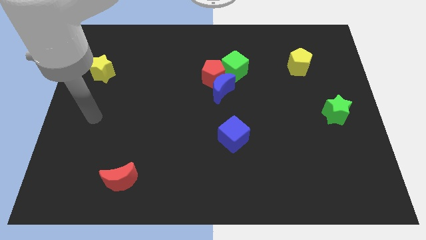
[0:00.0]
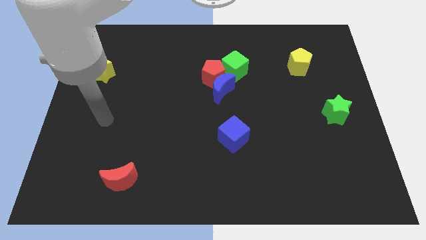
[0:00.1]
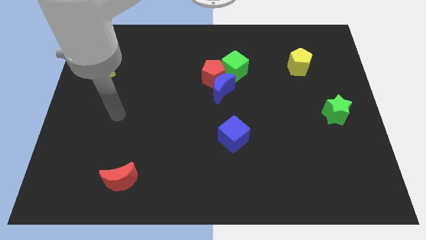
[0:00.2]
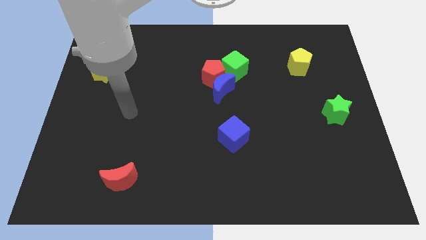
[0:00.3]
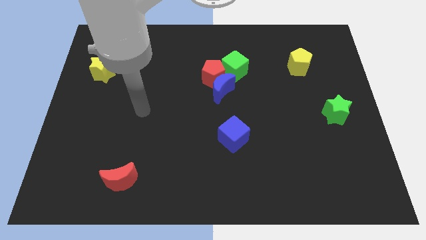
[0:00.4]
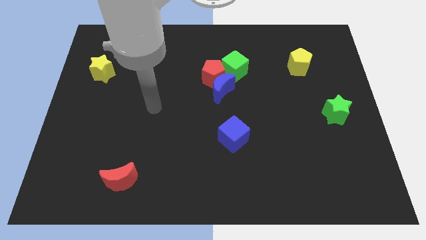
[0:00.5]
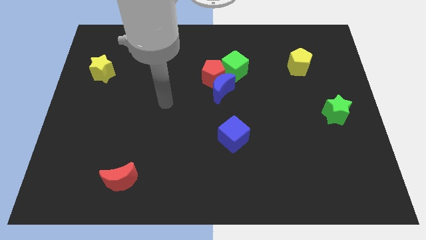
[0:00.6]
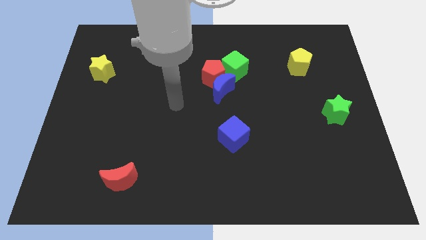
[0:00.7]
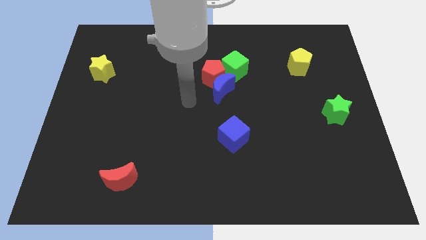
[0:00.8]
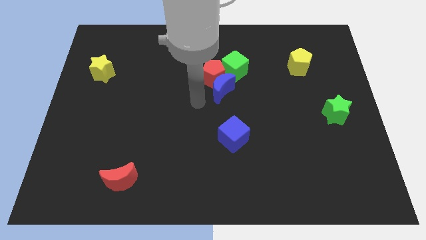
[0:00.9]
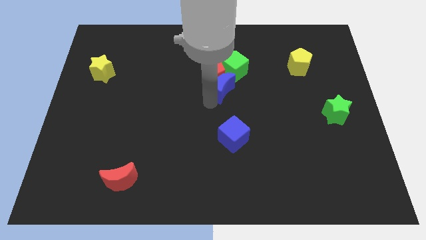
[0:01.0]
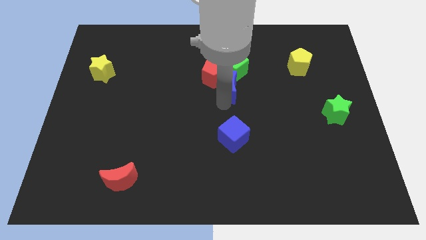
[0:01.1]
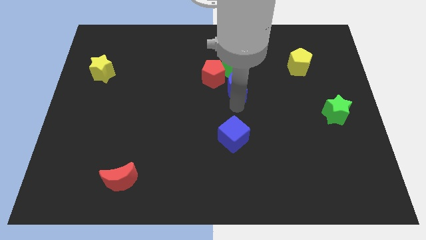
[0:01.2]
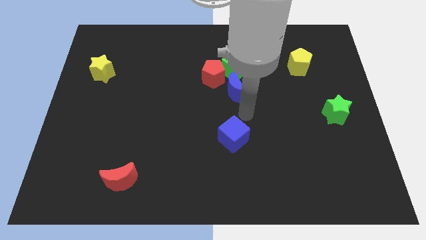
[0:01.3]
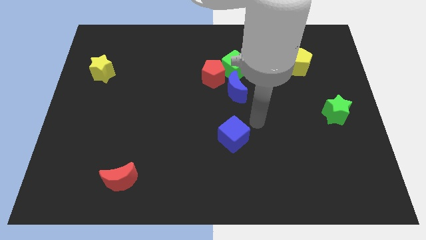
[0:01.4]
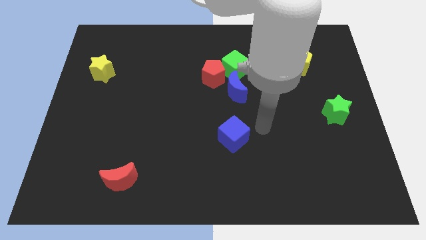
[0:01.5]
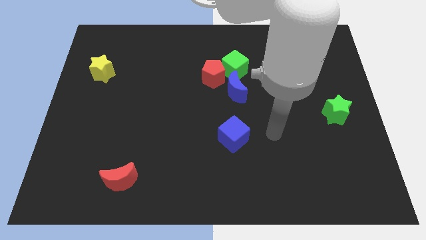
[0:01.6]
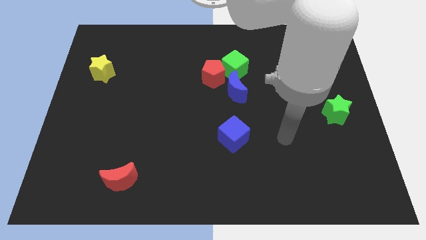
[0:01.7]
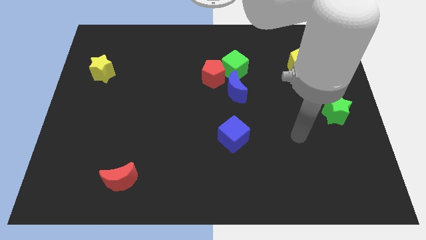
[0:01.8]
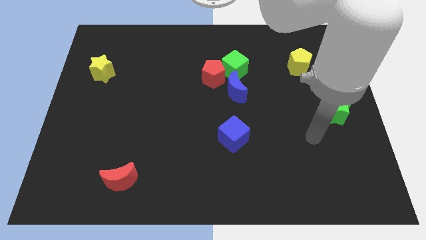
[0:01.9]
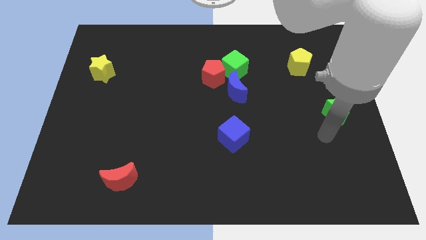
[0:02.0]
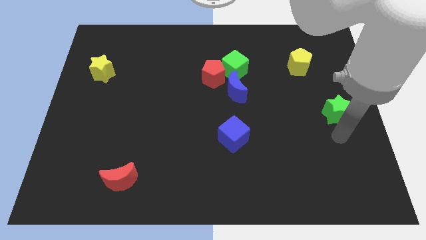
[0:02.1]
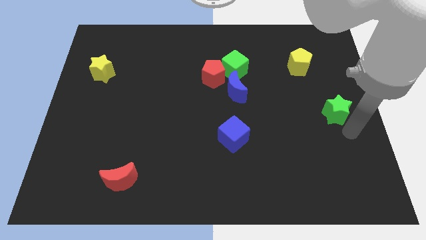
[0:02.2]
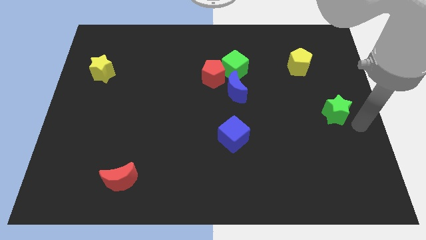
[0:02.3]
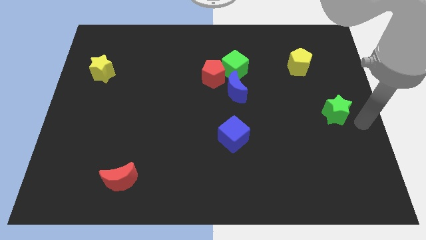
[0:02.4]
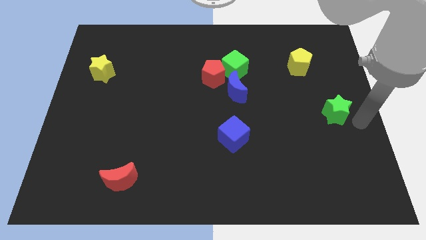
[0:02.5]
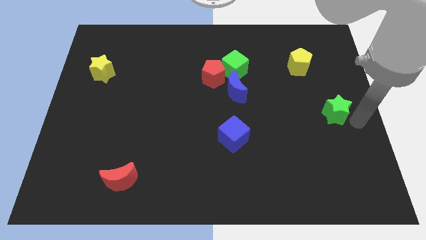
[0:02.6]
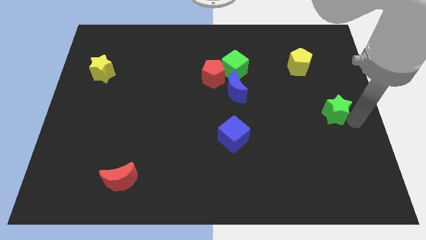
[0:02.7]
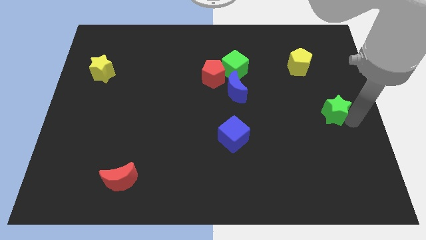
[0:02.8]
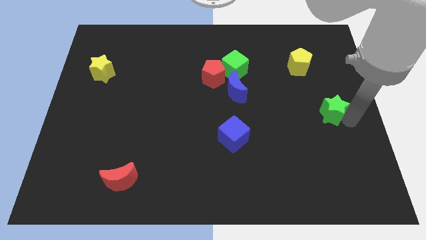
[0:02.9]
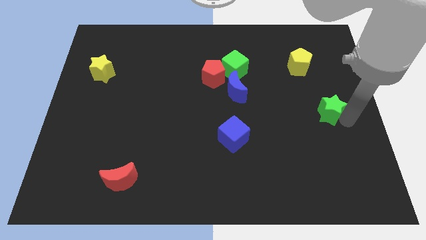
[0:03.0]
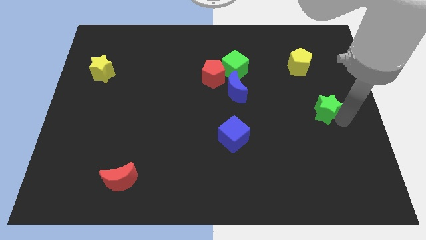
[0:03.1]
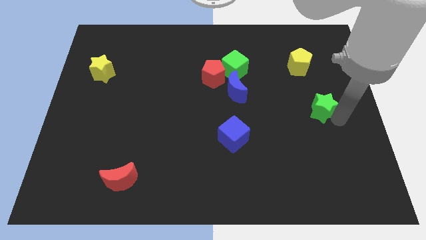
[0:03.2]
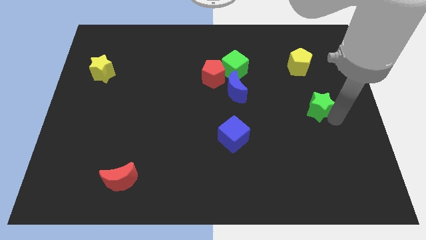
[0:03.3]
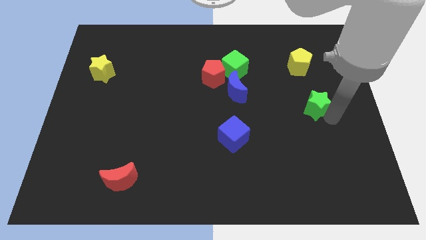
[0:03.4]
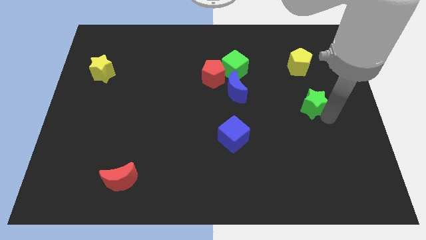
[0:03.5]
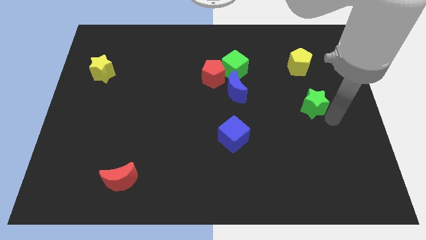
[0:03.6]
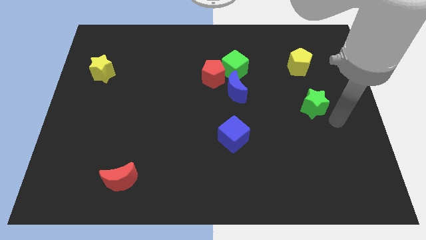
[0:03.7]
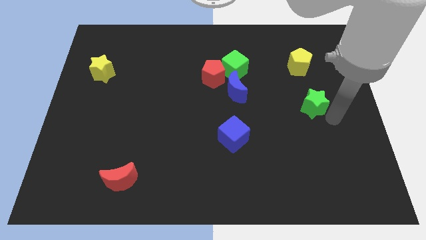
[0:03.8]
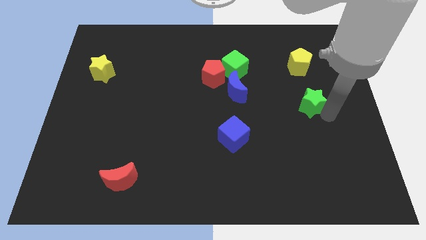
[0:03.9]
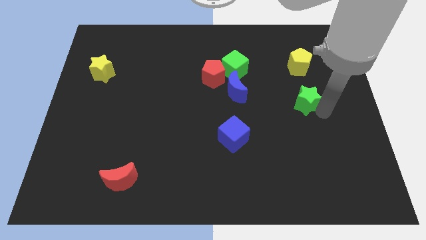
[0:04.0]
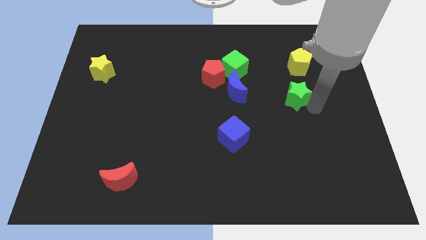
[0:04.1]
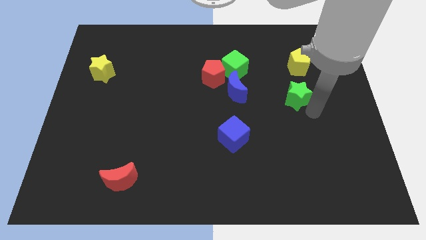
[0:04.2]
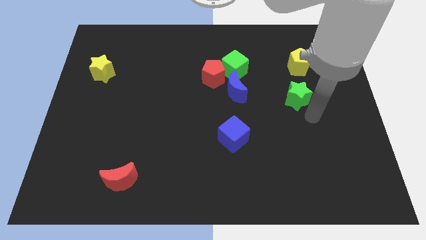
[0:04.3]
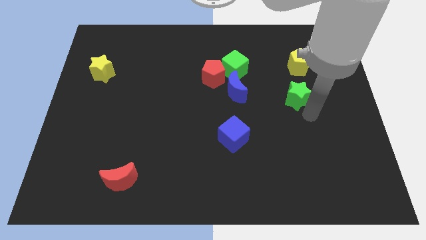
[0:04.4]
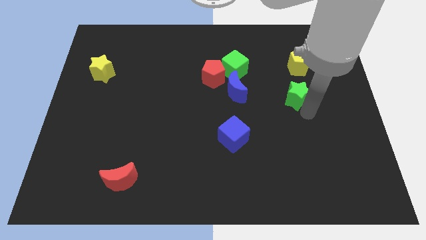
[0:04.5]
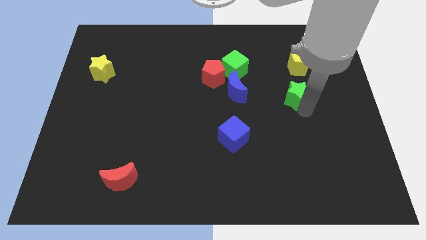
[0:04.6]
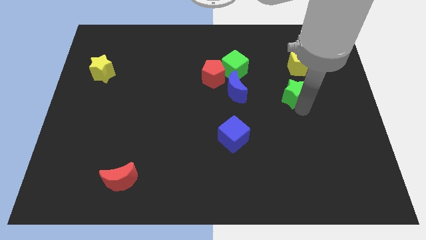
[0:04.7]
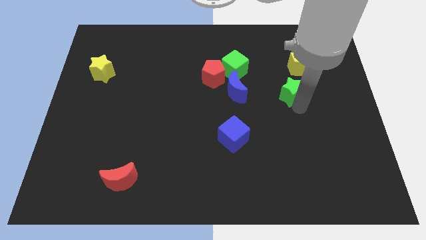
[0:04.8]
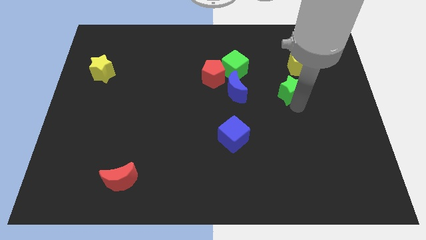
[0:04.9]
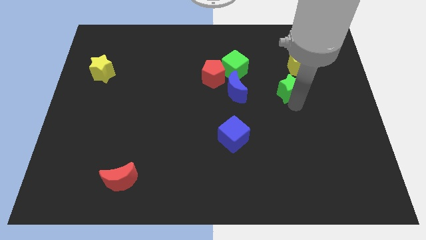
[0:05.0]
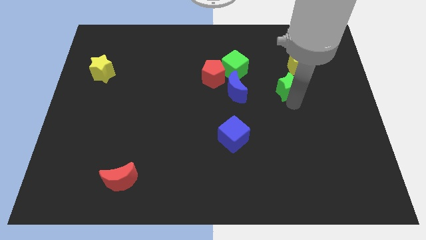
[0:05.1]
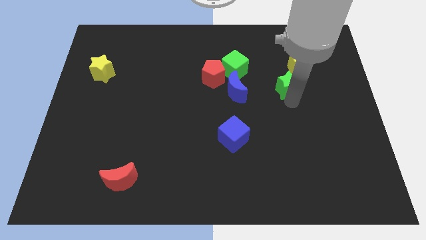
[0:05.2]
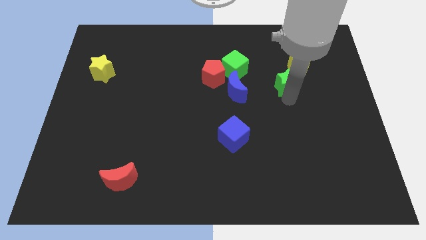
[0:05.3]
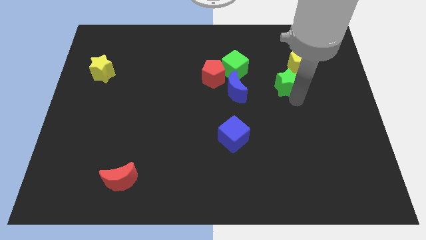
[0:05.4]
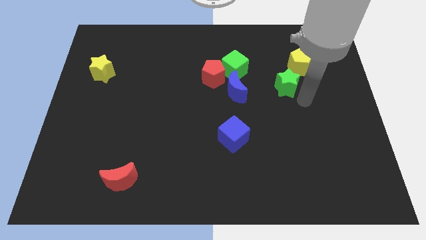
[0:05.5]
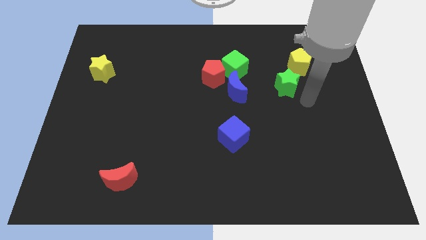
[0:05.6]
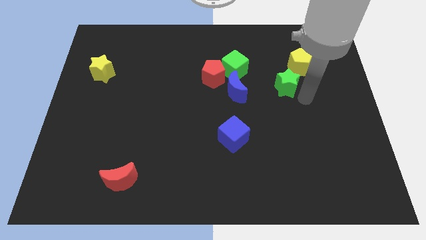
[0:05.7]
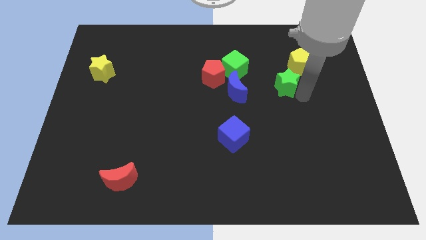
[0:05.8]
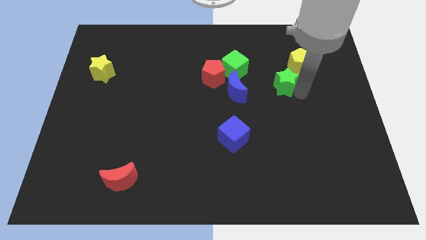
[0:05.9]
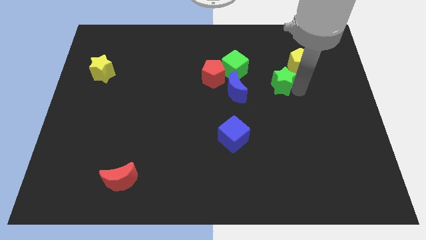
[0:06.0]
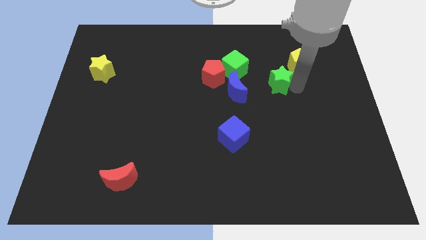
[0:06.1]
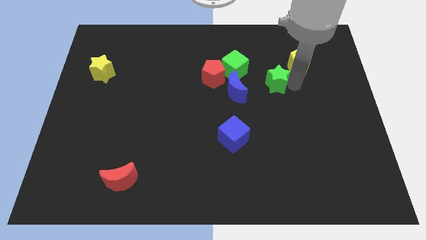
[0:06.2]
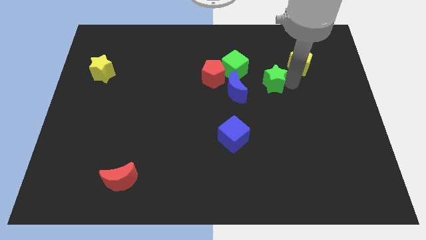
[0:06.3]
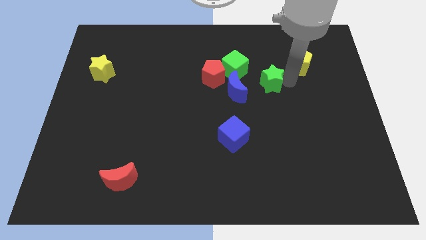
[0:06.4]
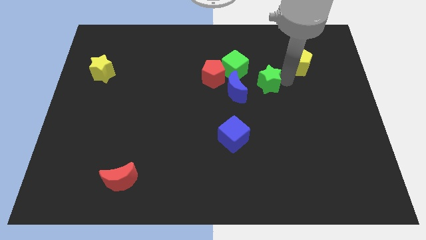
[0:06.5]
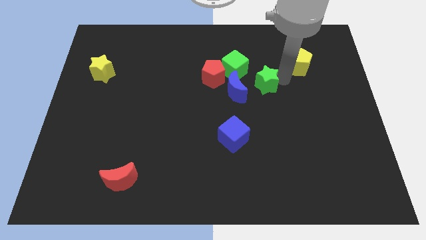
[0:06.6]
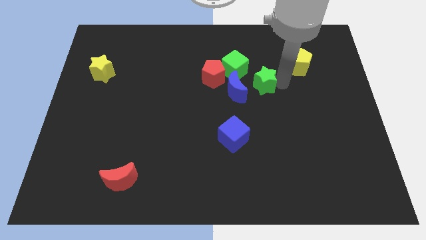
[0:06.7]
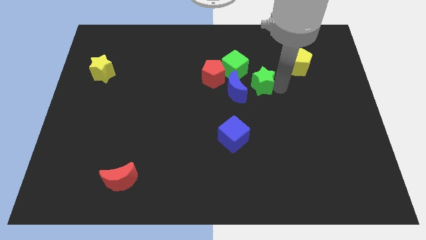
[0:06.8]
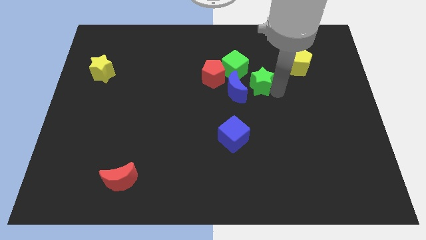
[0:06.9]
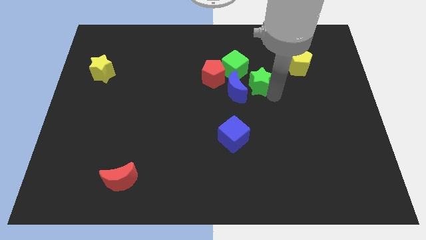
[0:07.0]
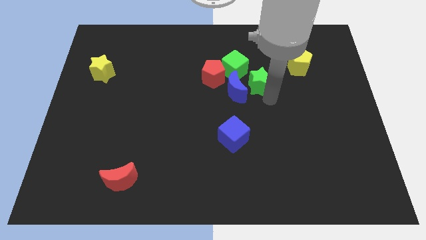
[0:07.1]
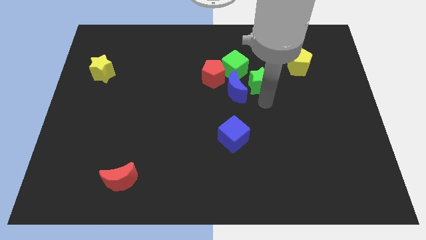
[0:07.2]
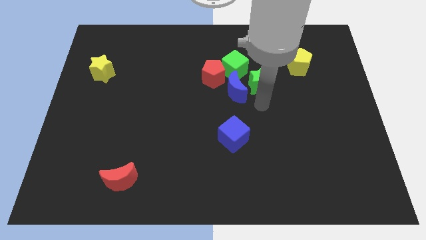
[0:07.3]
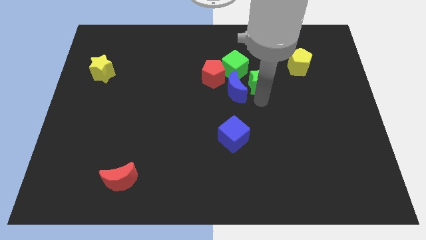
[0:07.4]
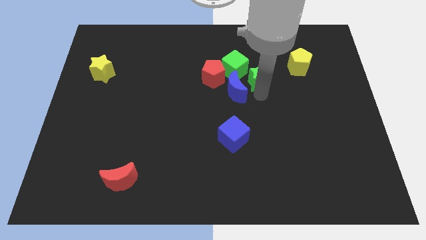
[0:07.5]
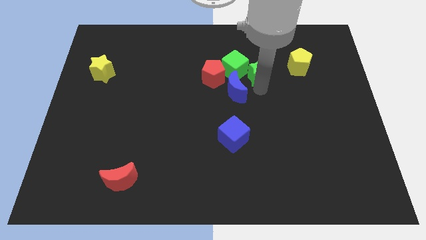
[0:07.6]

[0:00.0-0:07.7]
put the green star to the left of the yellow pentagon
